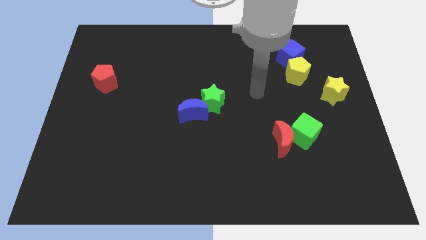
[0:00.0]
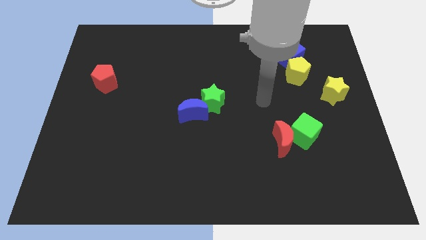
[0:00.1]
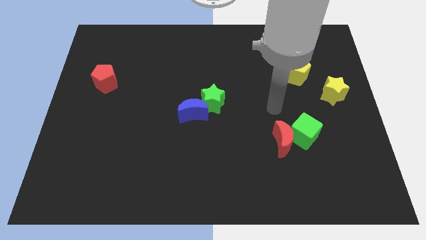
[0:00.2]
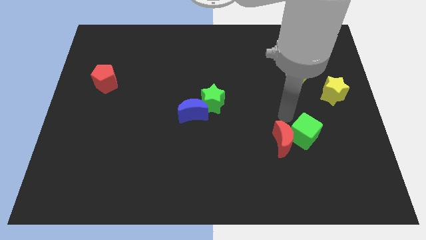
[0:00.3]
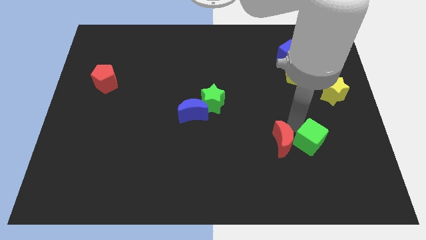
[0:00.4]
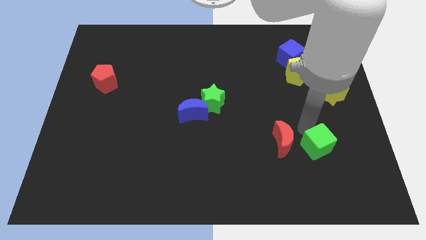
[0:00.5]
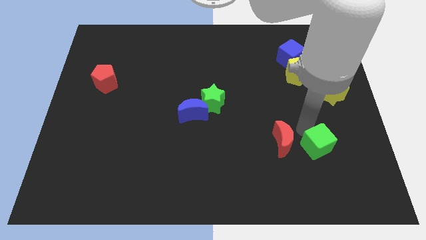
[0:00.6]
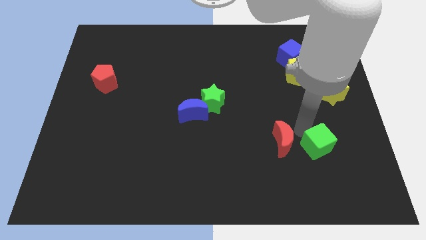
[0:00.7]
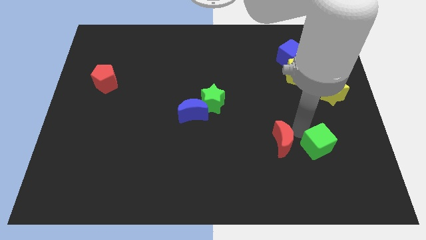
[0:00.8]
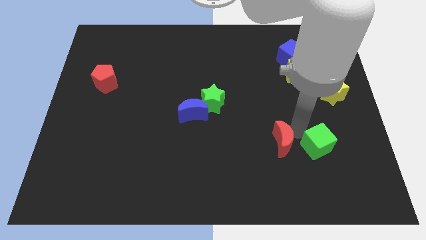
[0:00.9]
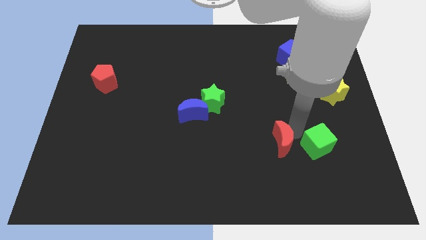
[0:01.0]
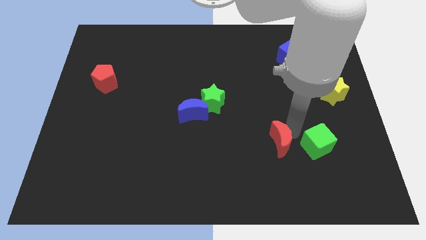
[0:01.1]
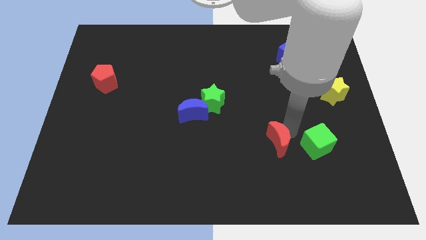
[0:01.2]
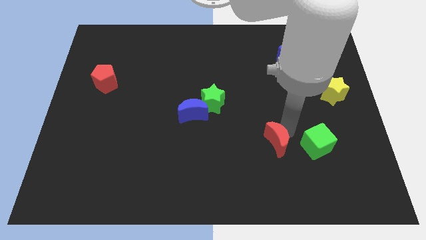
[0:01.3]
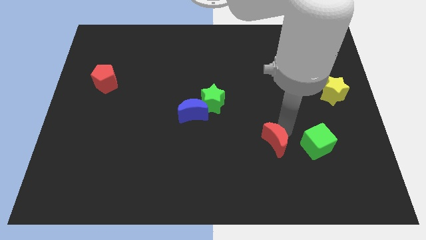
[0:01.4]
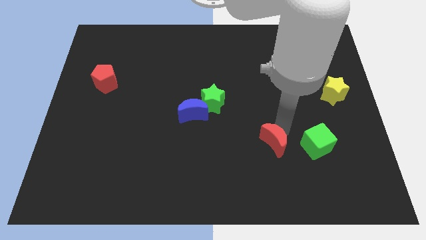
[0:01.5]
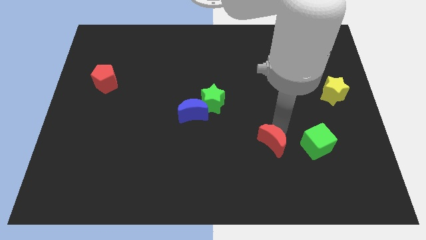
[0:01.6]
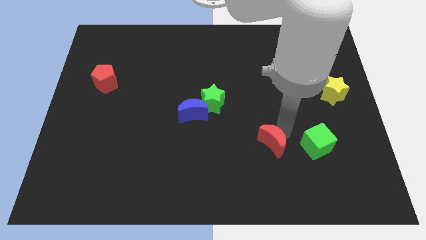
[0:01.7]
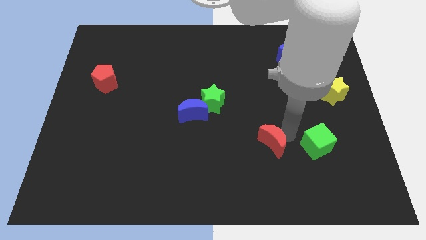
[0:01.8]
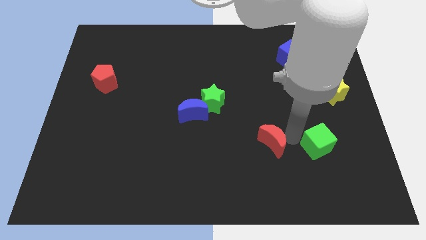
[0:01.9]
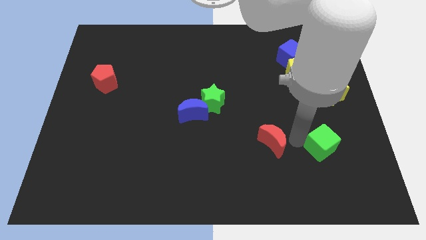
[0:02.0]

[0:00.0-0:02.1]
move the red moon away from the green cube

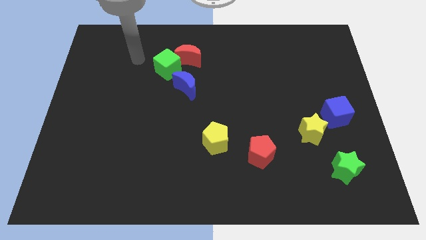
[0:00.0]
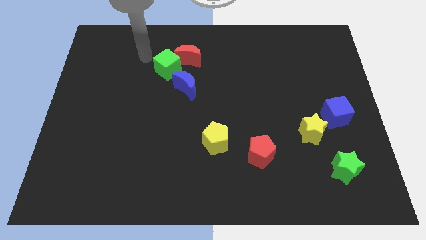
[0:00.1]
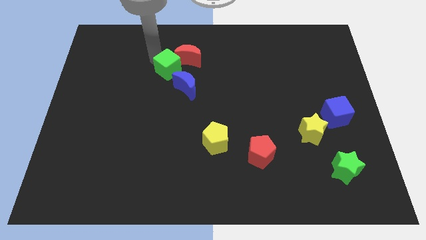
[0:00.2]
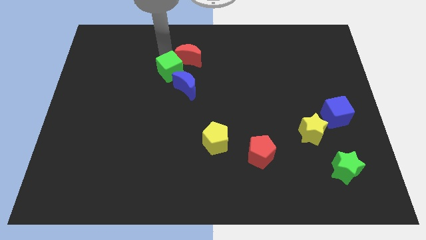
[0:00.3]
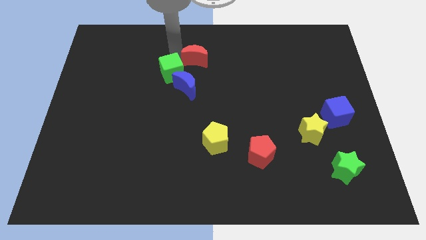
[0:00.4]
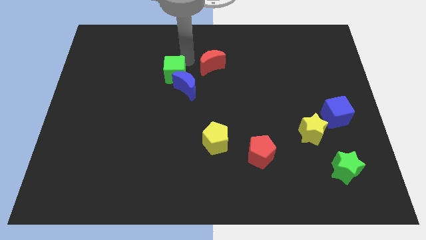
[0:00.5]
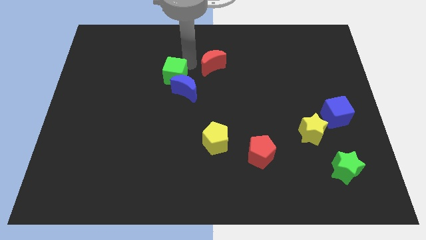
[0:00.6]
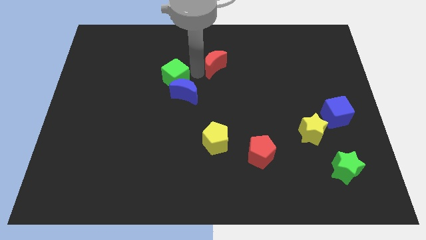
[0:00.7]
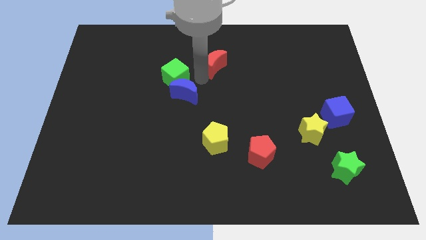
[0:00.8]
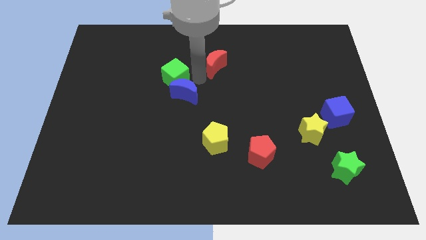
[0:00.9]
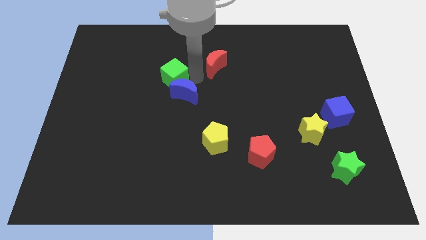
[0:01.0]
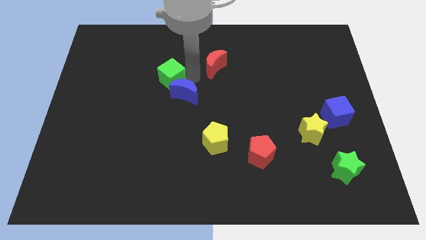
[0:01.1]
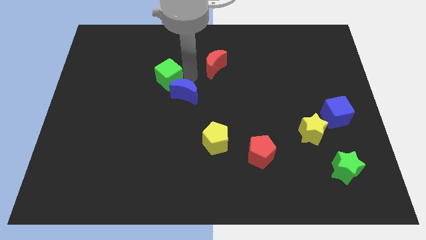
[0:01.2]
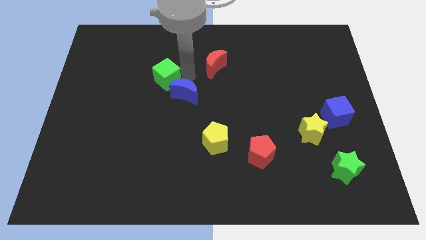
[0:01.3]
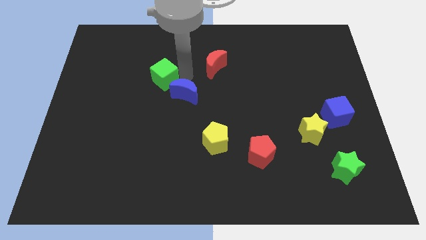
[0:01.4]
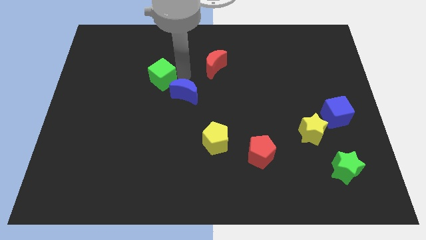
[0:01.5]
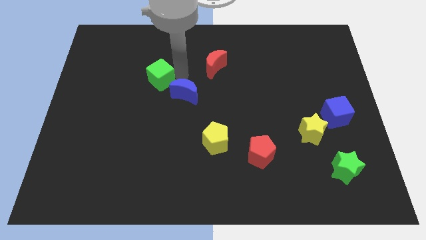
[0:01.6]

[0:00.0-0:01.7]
pull the green cube apart from the red moon and blue moon

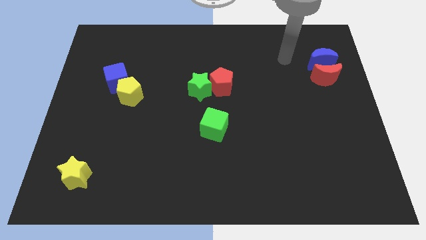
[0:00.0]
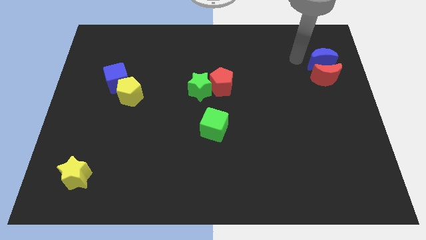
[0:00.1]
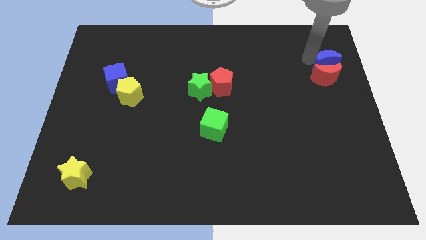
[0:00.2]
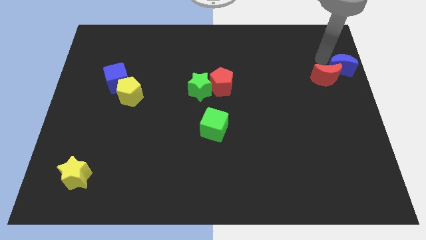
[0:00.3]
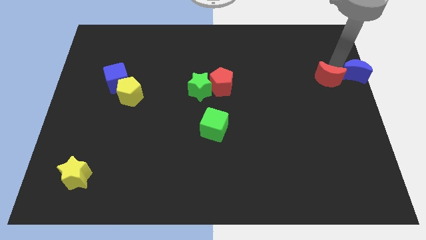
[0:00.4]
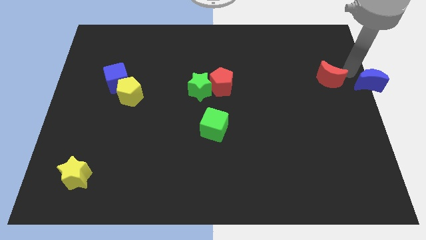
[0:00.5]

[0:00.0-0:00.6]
pull the red moon apart from the blue moon

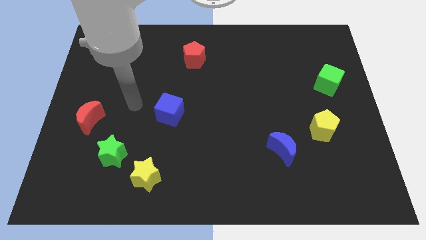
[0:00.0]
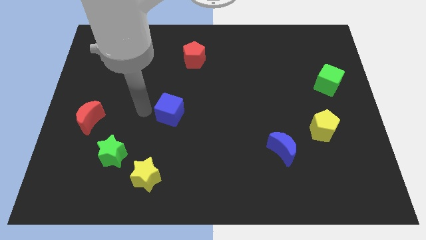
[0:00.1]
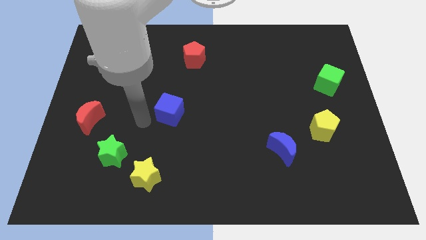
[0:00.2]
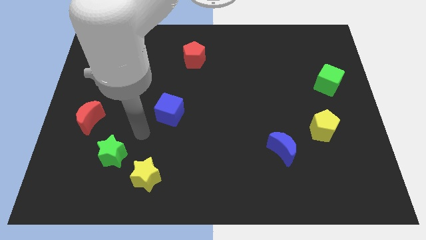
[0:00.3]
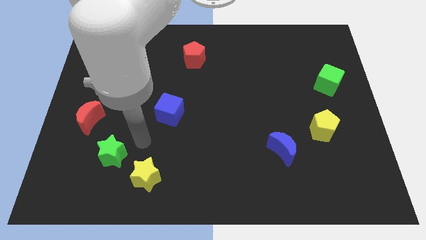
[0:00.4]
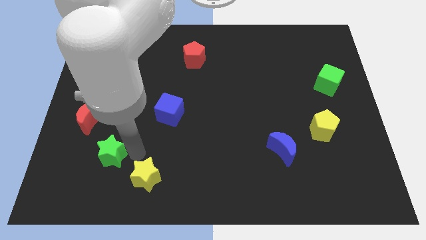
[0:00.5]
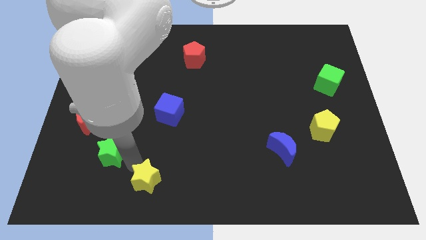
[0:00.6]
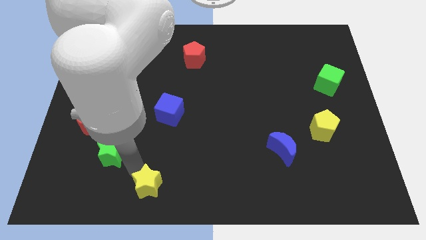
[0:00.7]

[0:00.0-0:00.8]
move the green star away from the yellow star

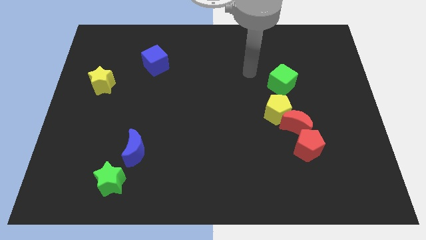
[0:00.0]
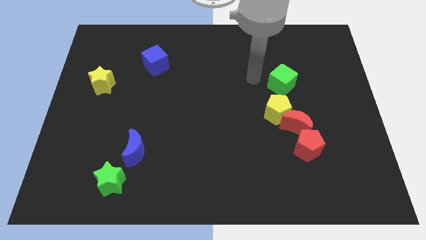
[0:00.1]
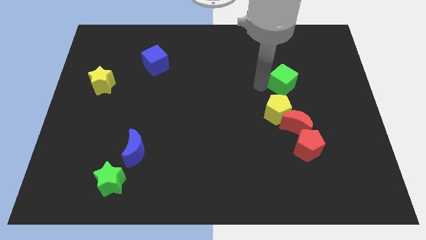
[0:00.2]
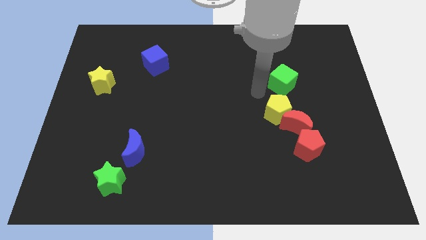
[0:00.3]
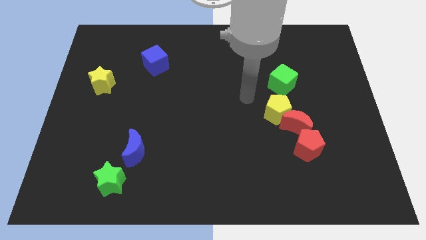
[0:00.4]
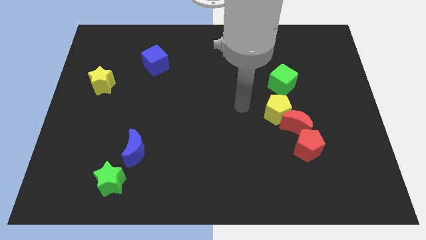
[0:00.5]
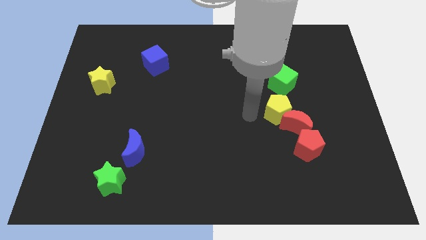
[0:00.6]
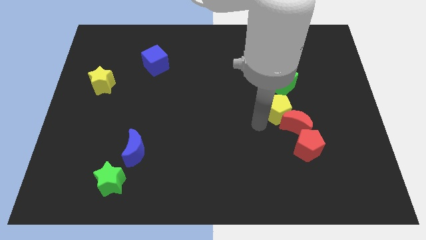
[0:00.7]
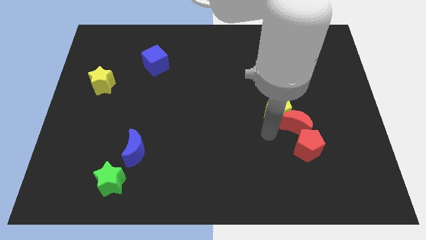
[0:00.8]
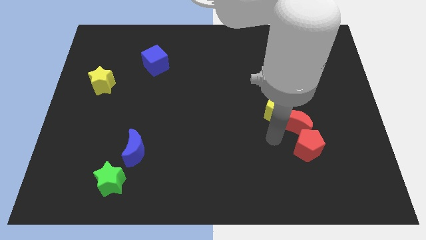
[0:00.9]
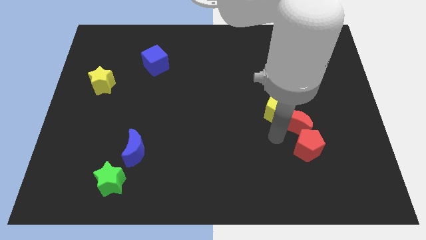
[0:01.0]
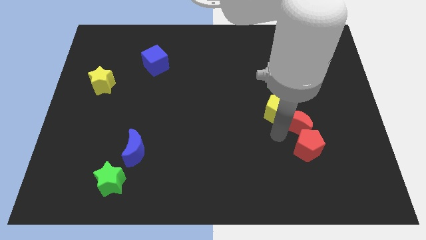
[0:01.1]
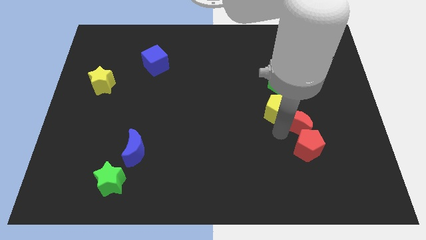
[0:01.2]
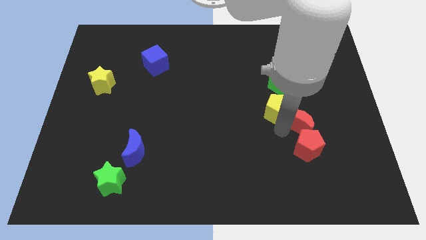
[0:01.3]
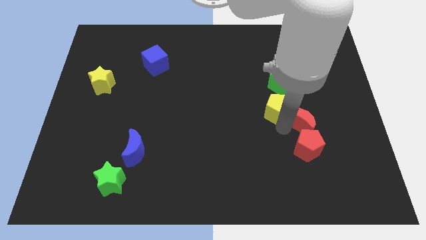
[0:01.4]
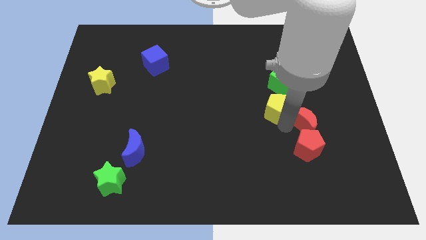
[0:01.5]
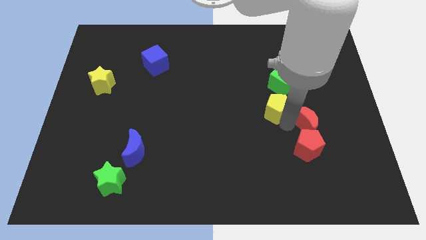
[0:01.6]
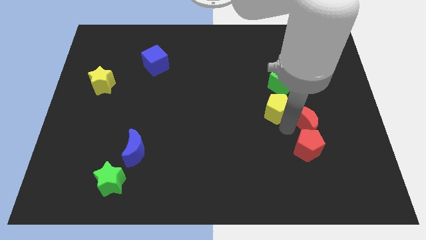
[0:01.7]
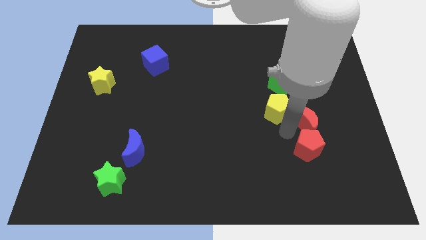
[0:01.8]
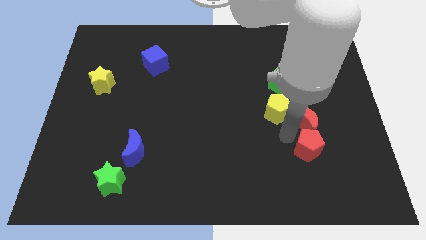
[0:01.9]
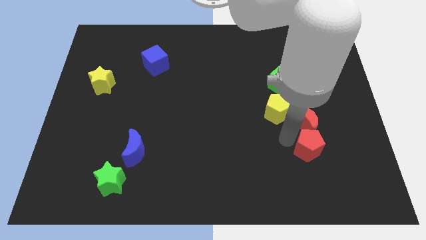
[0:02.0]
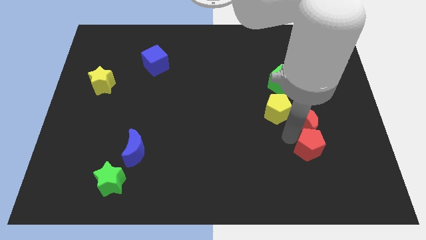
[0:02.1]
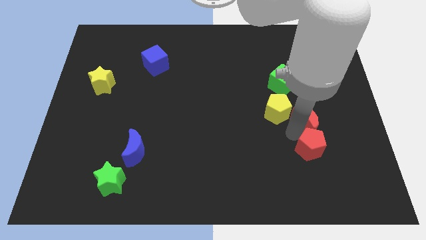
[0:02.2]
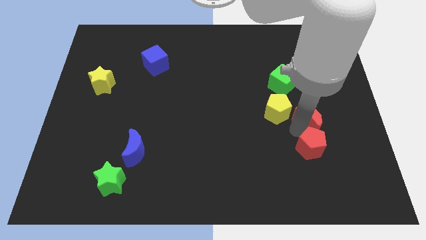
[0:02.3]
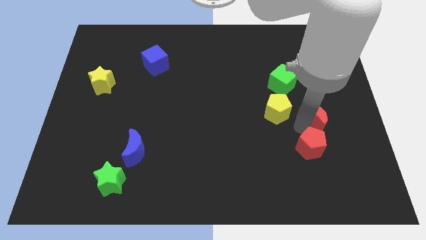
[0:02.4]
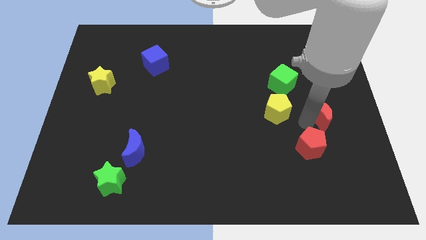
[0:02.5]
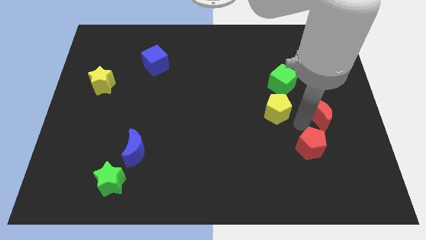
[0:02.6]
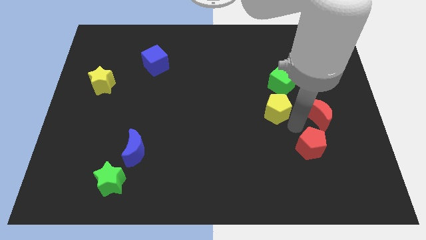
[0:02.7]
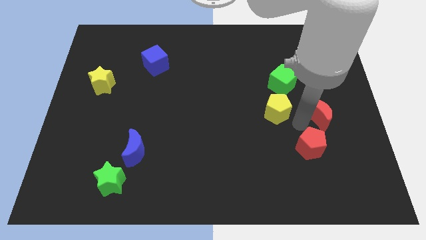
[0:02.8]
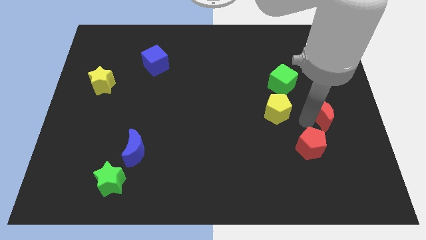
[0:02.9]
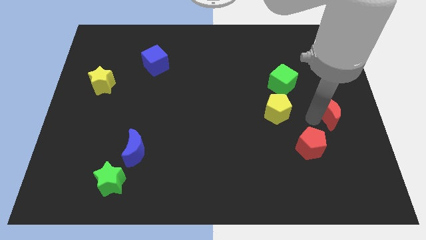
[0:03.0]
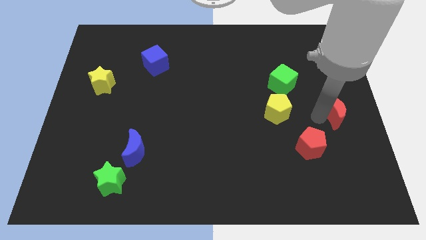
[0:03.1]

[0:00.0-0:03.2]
separate the red moon from the yellow pentagon and red pentagon

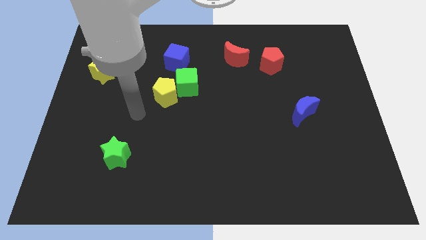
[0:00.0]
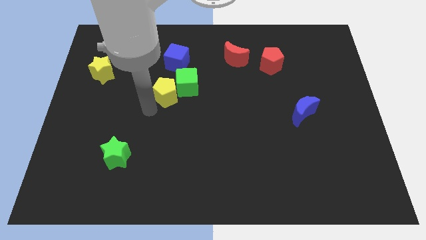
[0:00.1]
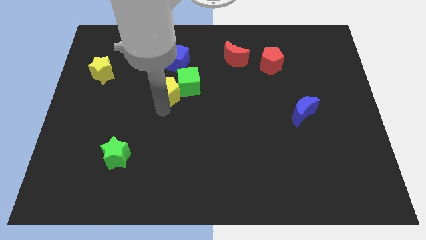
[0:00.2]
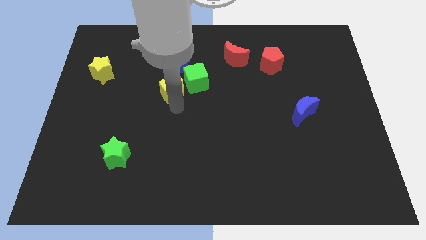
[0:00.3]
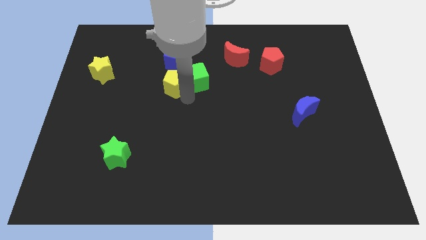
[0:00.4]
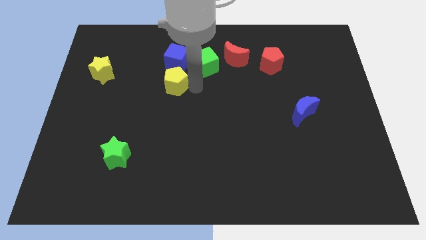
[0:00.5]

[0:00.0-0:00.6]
pull the yellow pentagon apart from the green cube

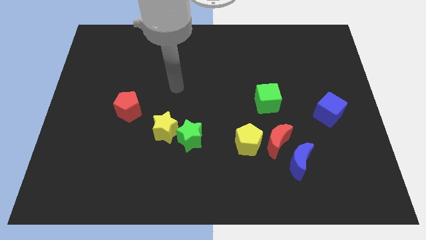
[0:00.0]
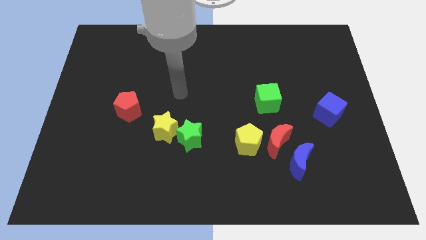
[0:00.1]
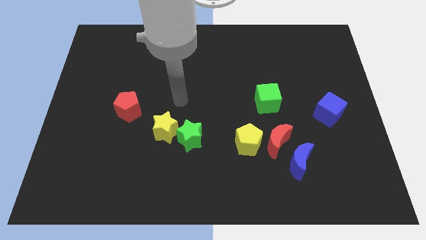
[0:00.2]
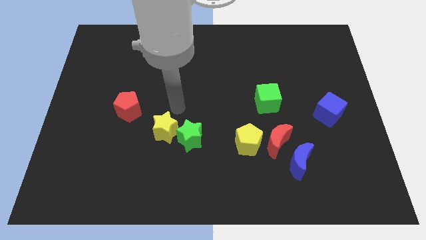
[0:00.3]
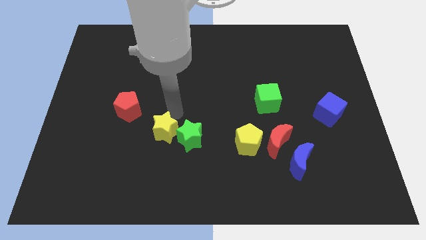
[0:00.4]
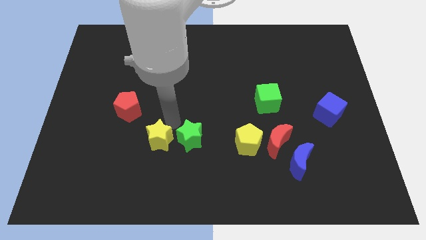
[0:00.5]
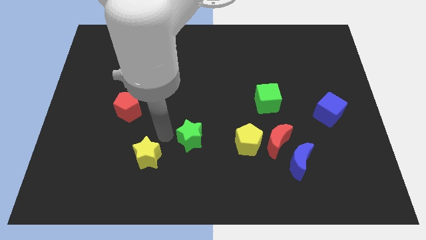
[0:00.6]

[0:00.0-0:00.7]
separate the green star from the yellow star
